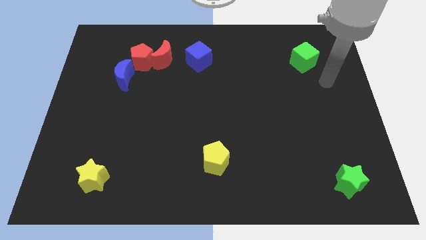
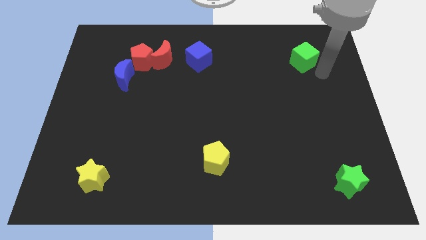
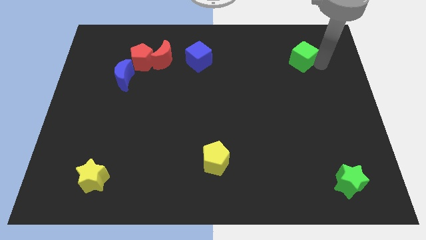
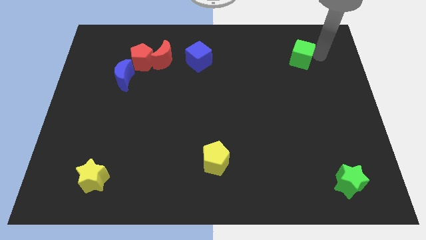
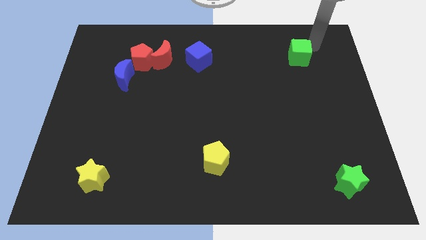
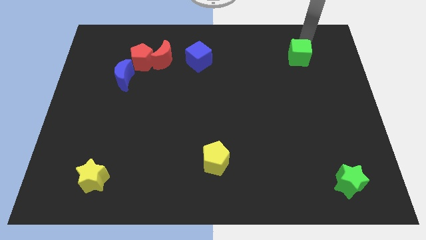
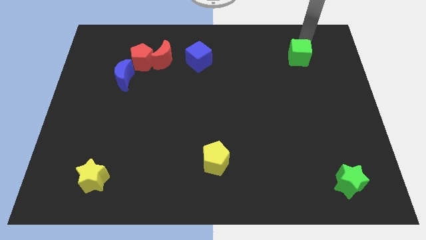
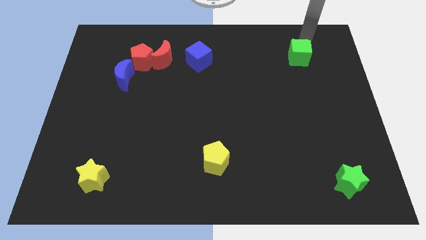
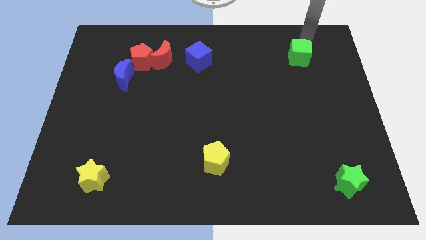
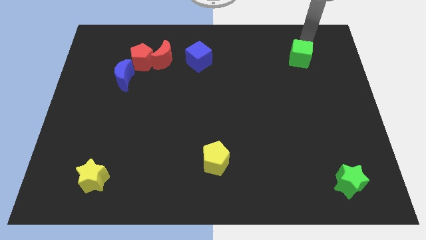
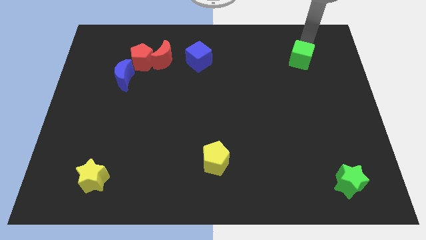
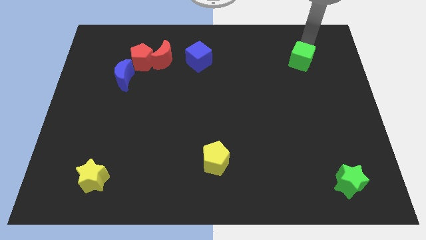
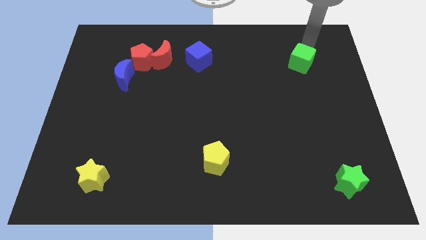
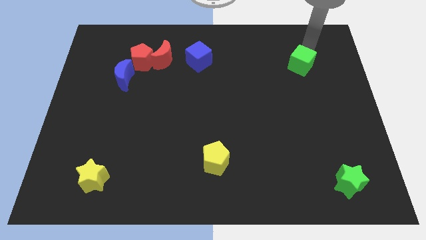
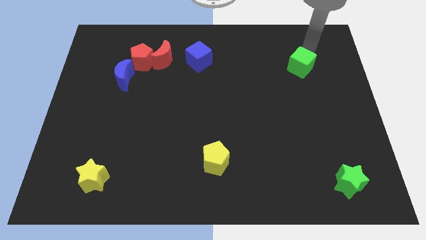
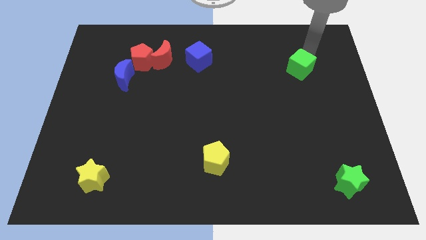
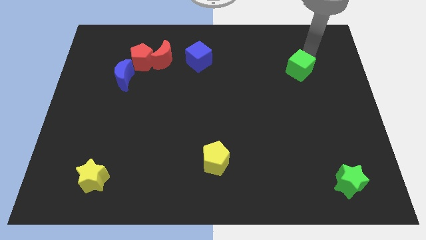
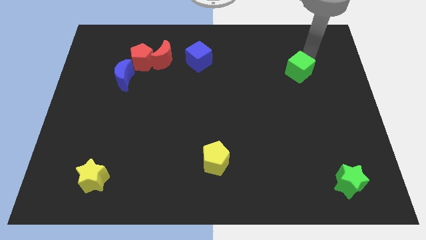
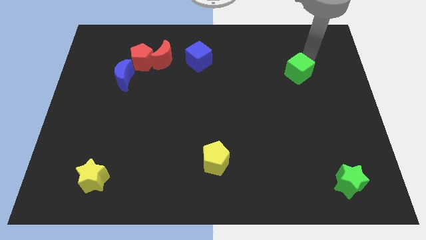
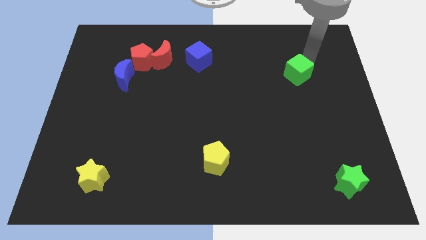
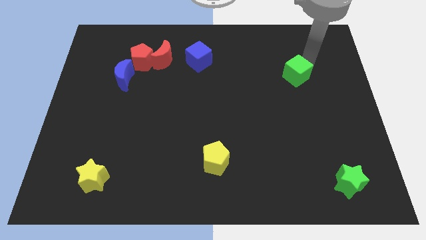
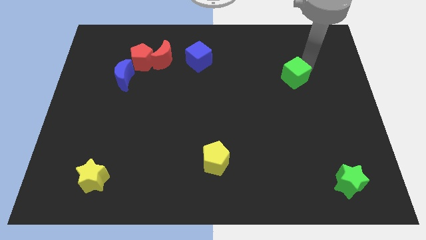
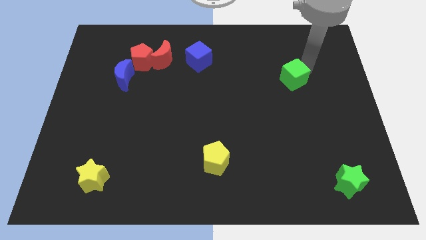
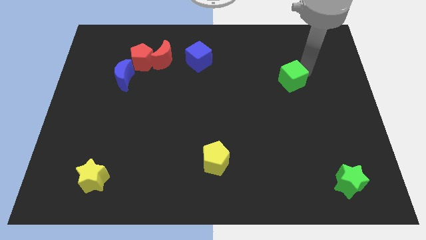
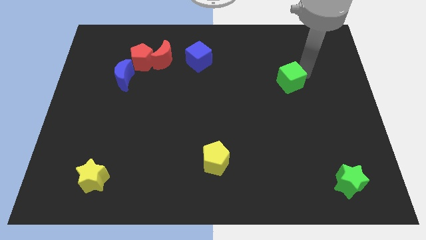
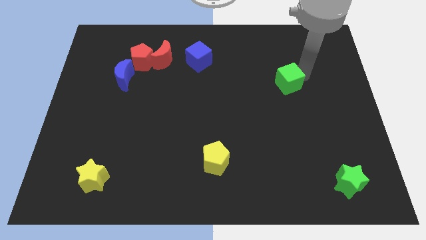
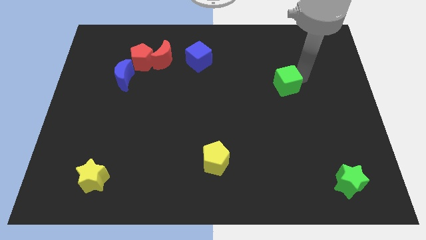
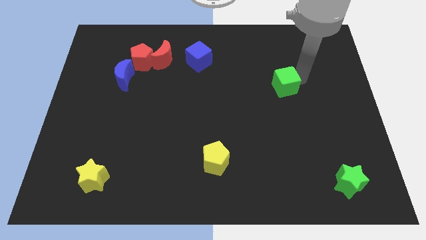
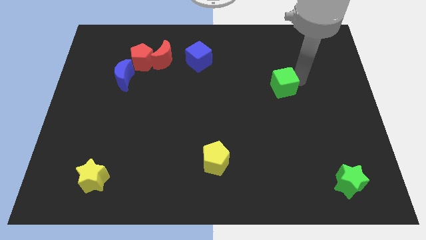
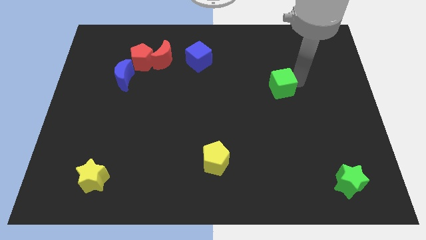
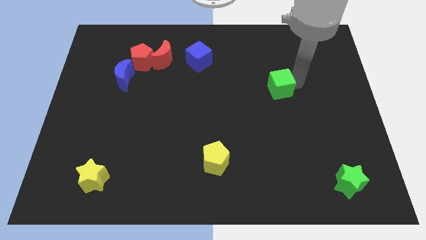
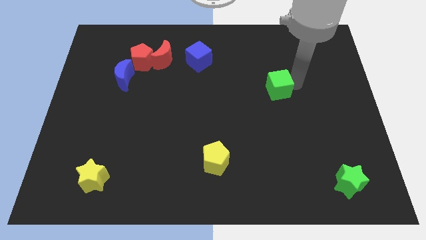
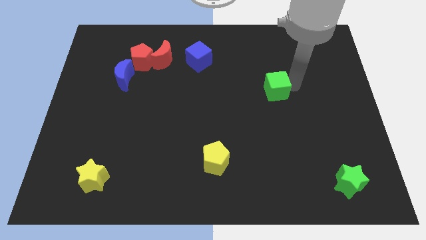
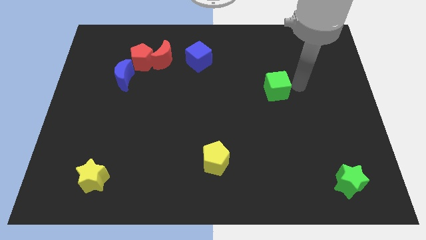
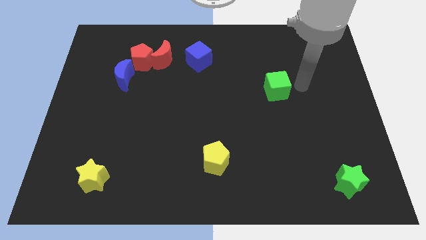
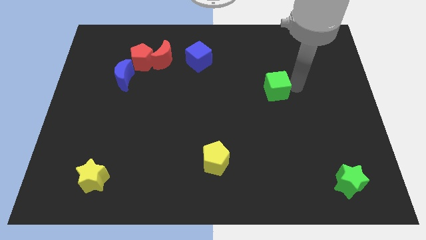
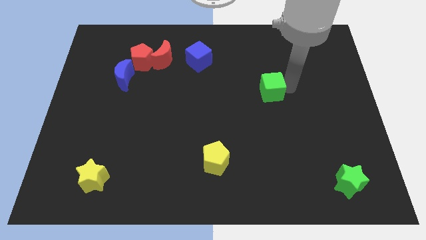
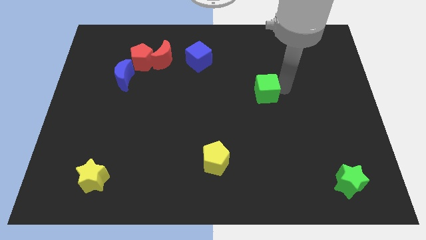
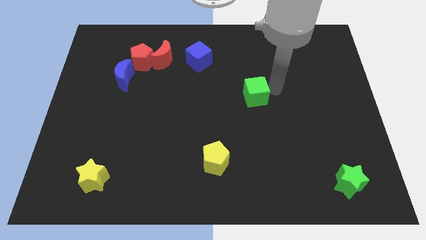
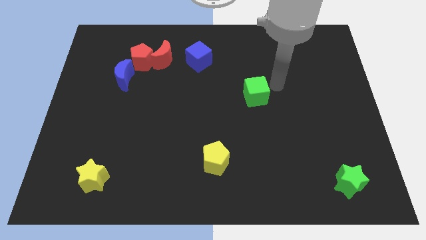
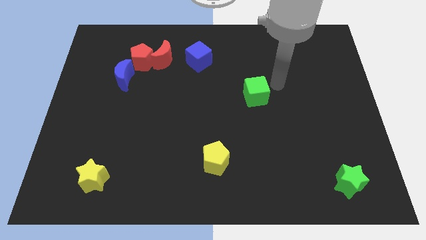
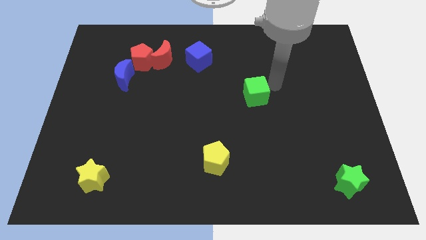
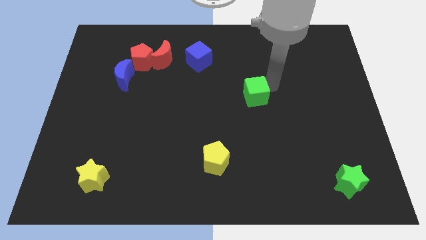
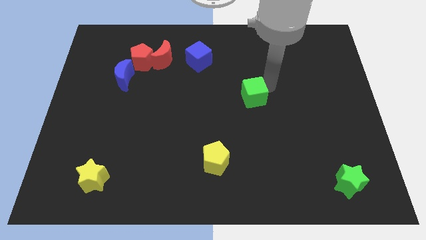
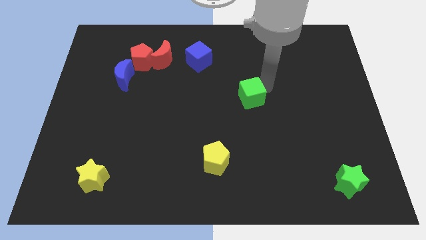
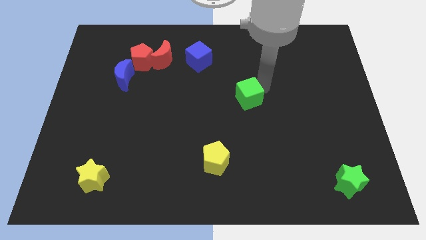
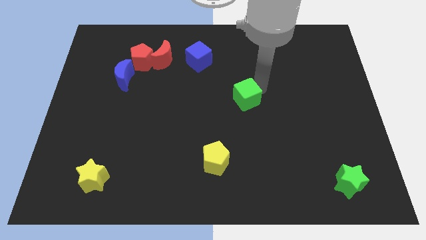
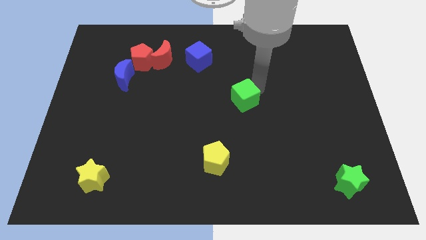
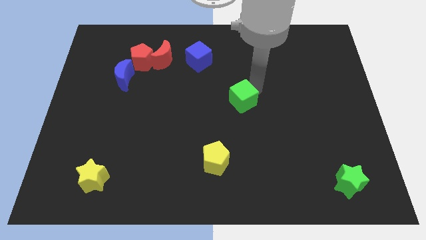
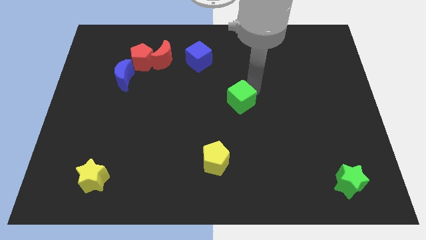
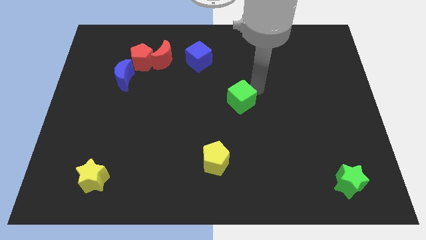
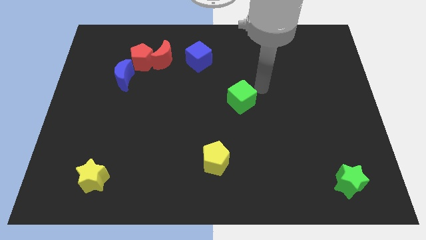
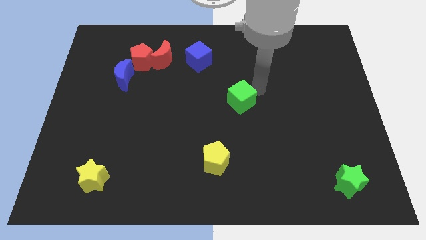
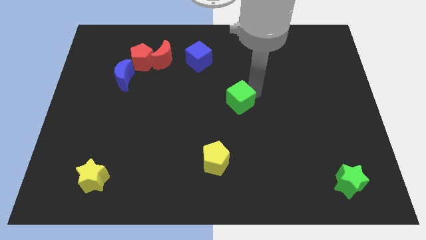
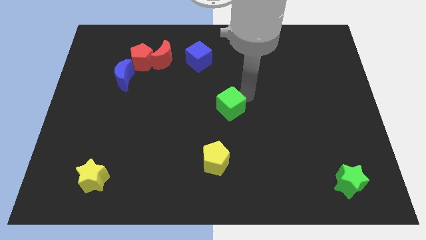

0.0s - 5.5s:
move the green cube to the top side of the yellow pentagon

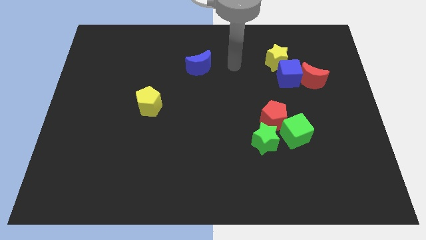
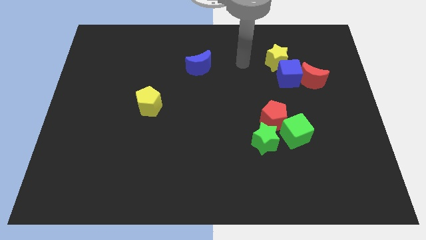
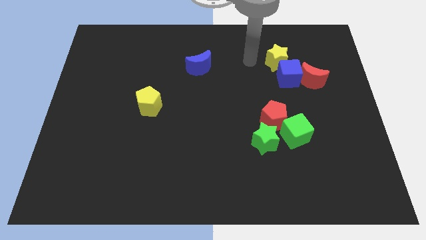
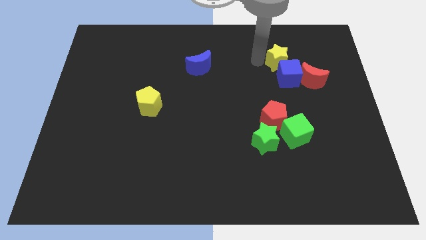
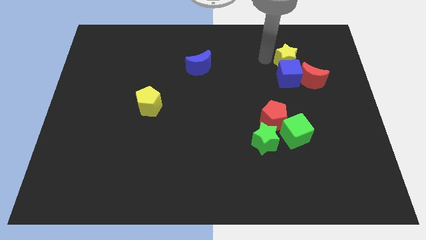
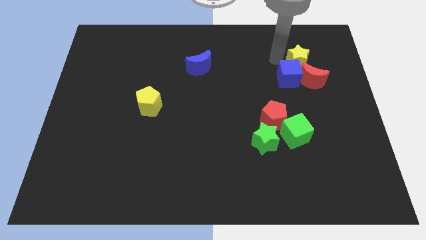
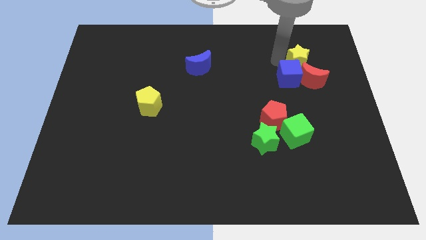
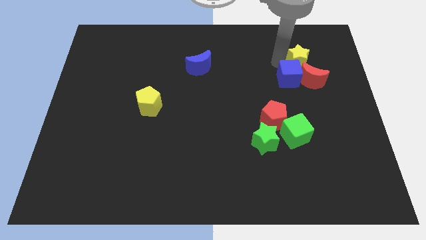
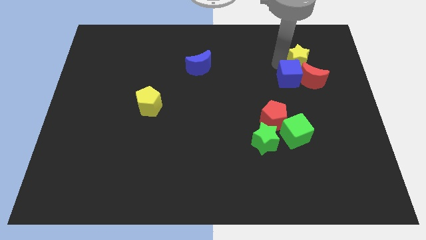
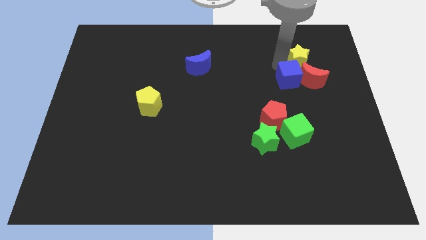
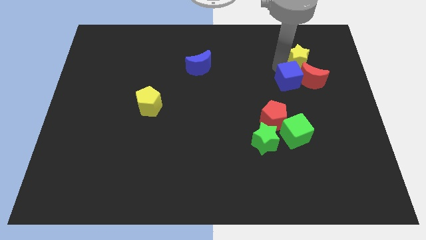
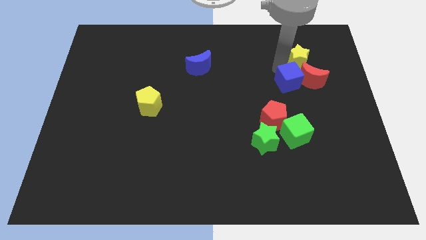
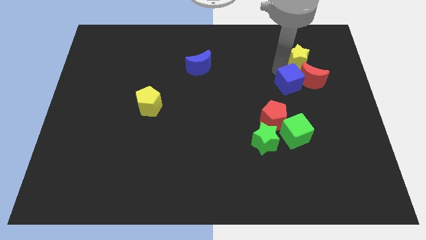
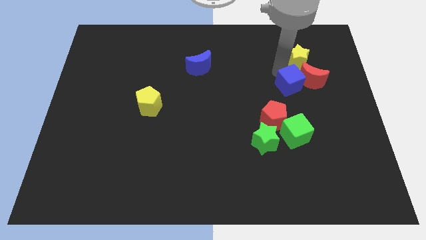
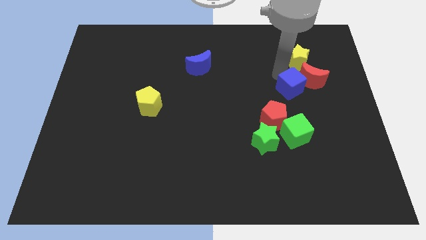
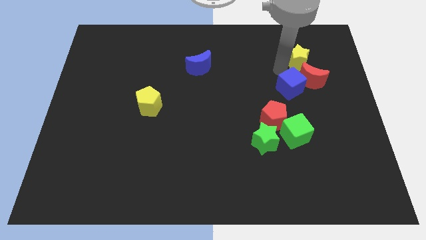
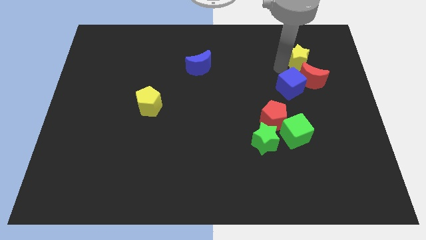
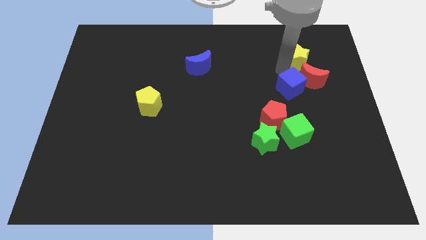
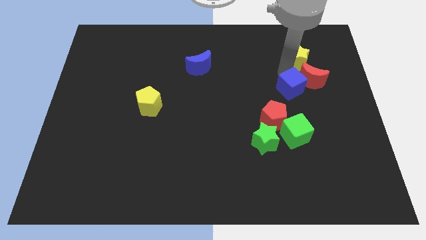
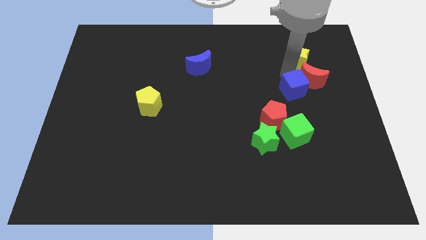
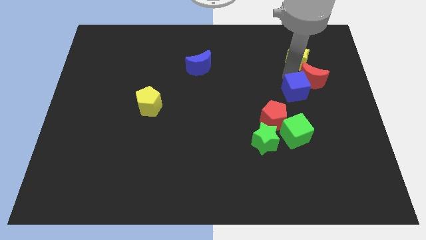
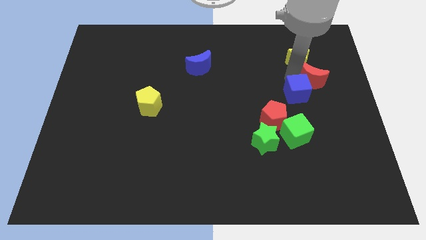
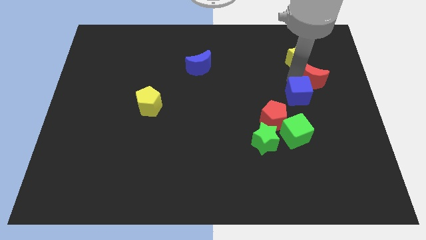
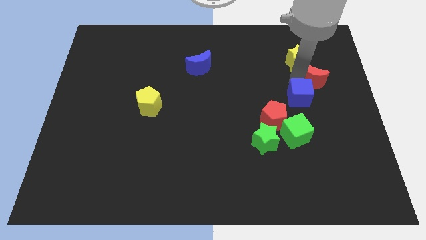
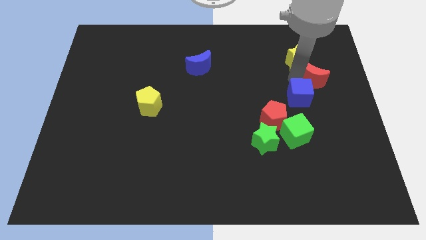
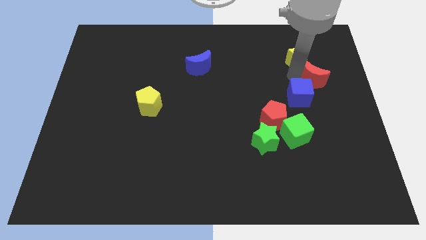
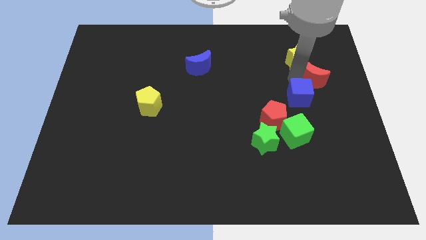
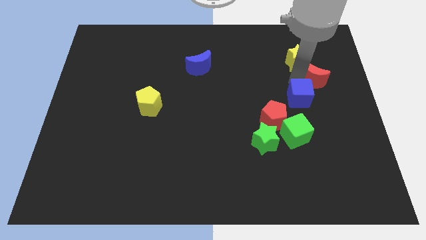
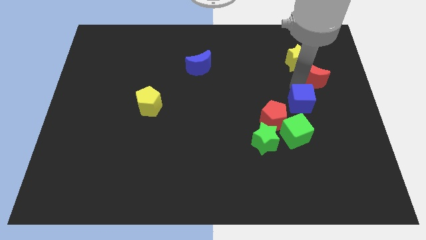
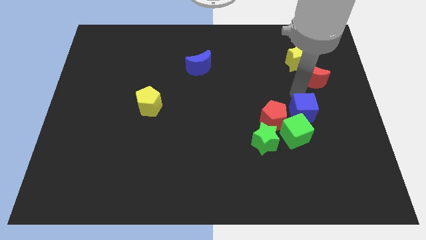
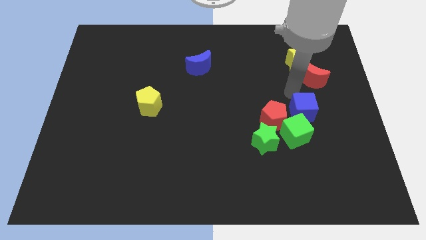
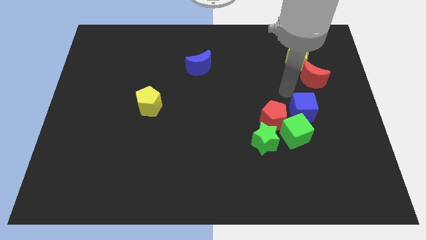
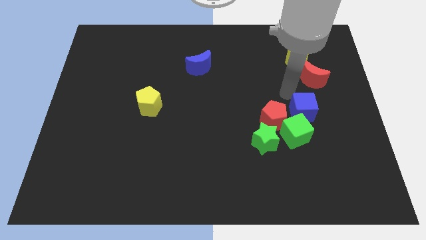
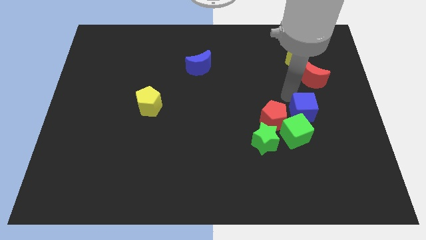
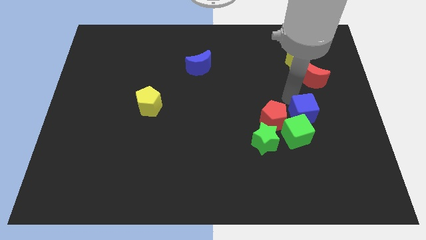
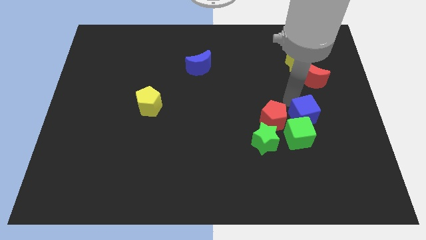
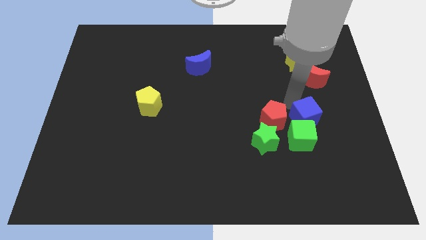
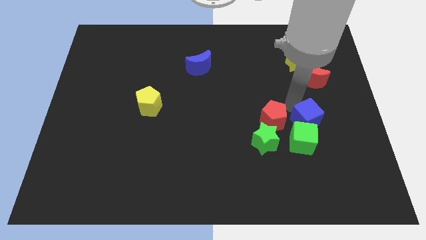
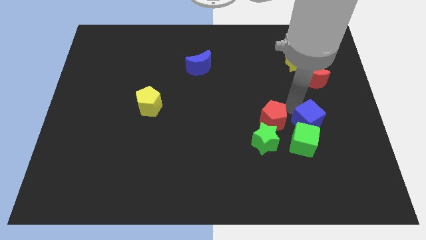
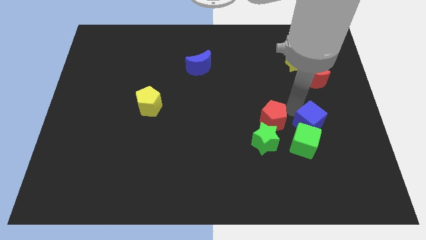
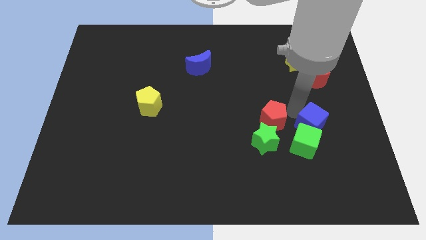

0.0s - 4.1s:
move the blue cube just right of the green star
